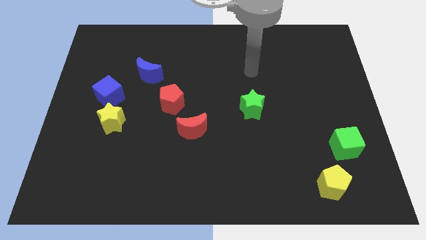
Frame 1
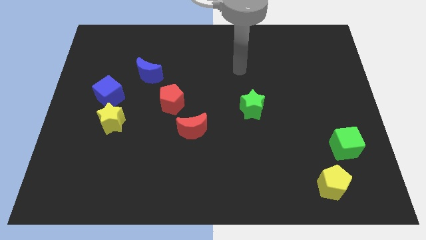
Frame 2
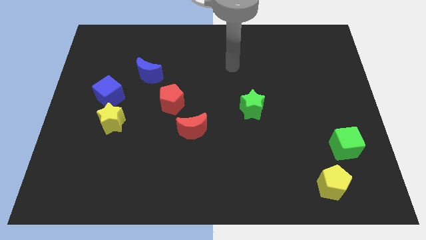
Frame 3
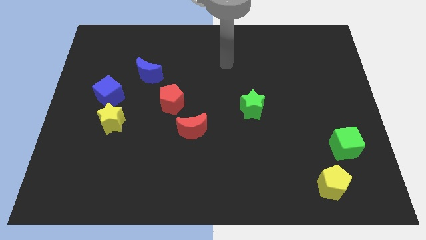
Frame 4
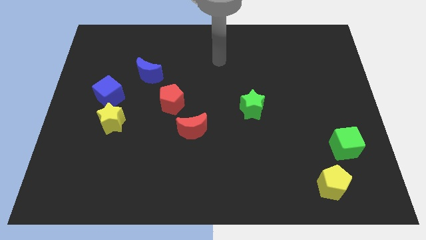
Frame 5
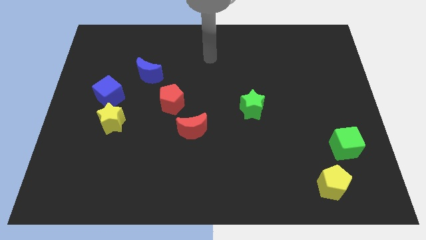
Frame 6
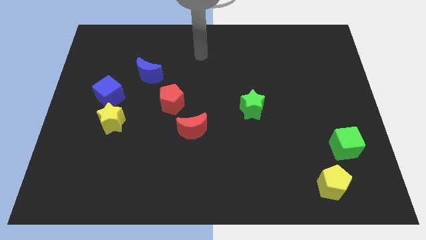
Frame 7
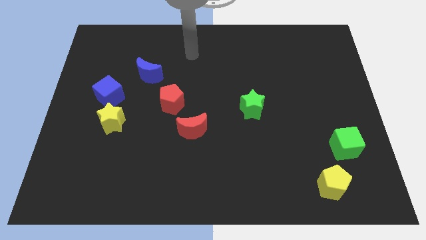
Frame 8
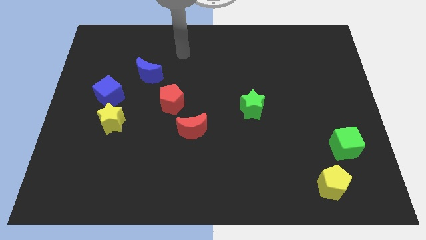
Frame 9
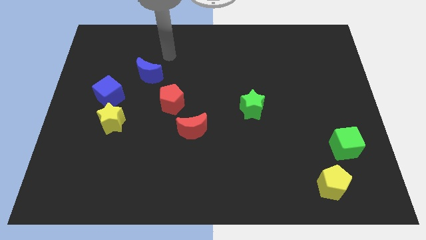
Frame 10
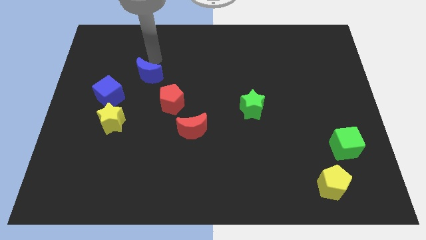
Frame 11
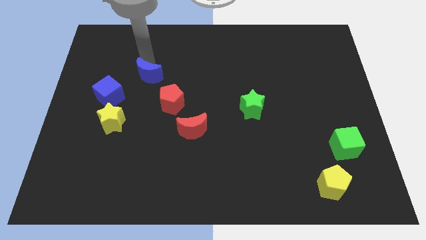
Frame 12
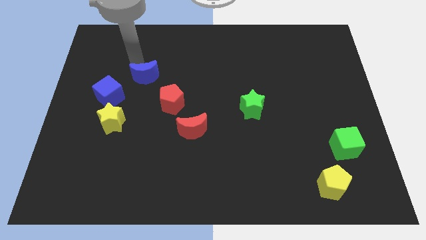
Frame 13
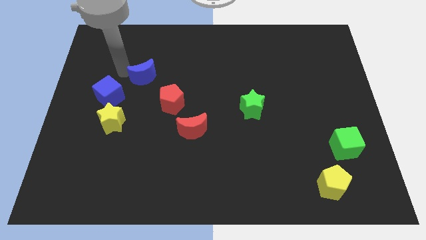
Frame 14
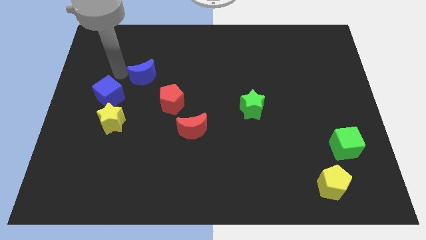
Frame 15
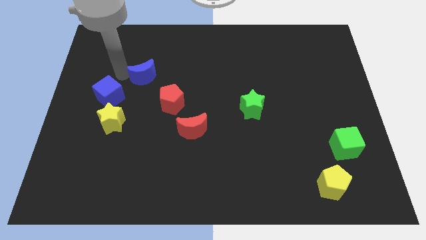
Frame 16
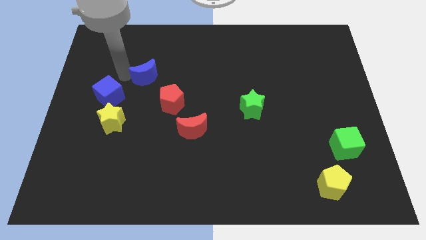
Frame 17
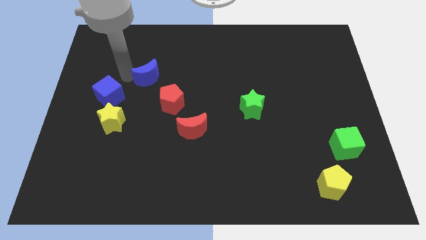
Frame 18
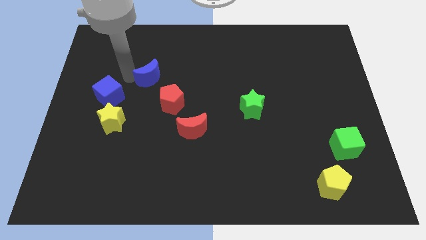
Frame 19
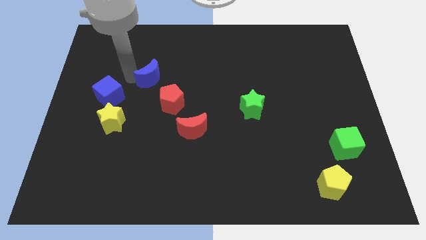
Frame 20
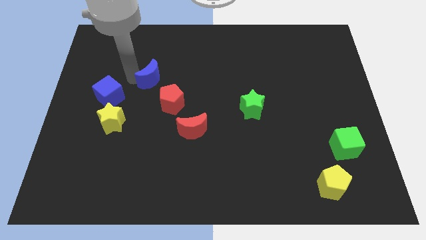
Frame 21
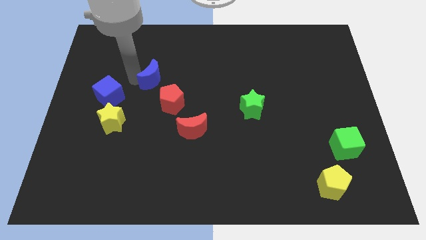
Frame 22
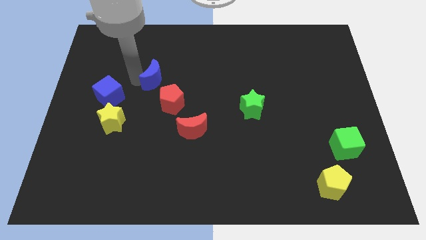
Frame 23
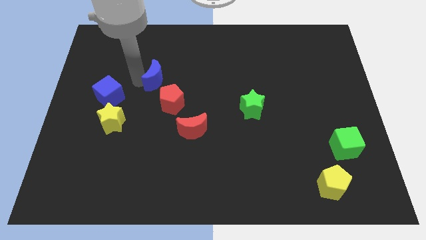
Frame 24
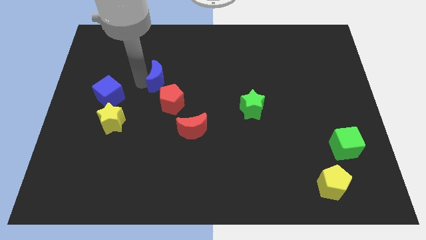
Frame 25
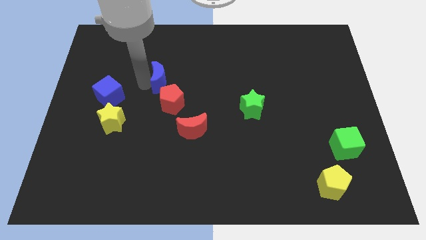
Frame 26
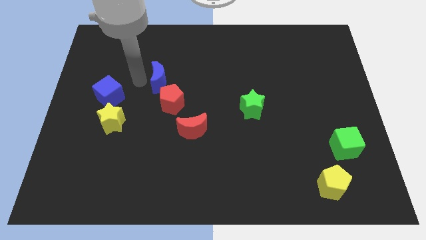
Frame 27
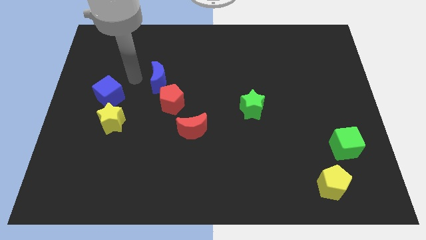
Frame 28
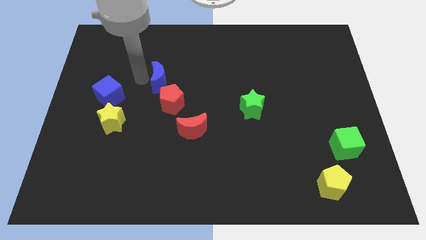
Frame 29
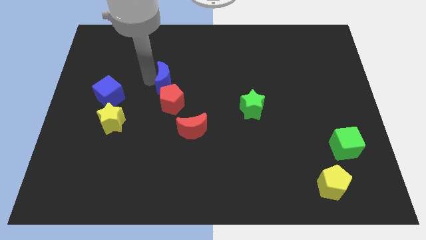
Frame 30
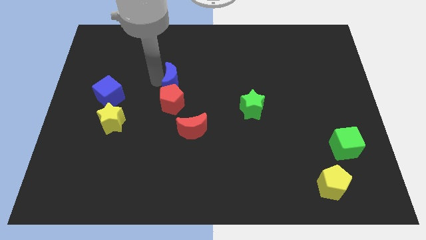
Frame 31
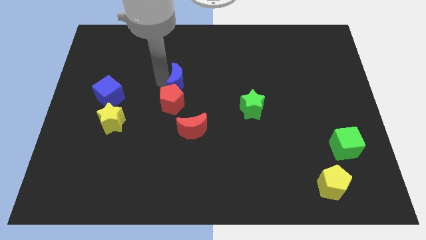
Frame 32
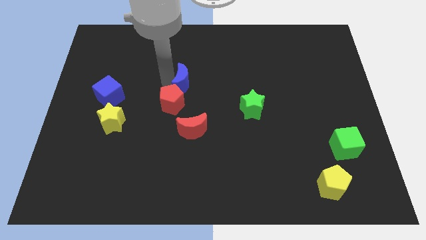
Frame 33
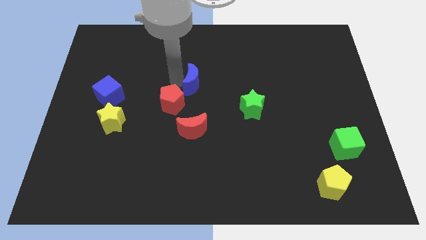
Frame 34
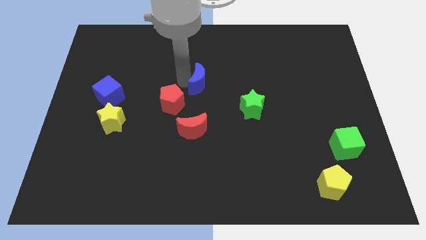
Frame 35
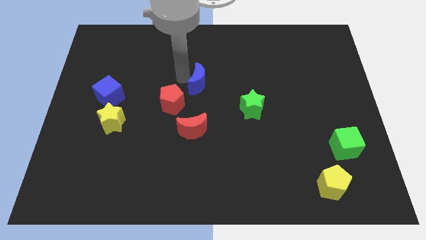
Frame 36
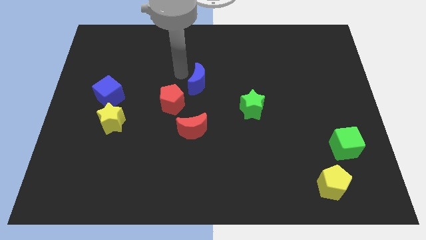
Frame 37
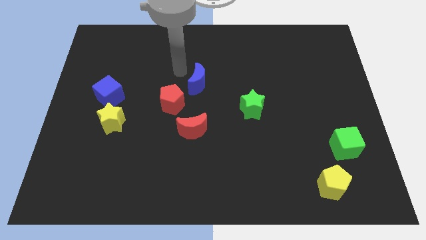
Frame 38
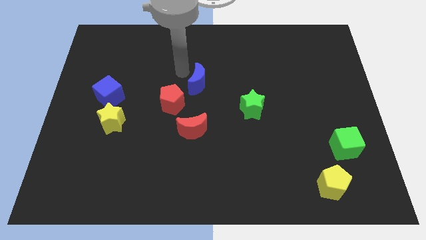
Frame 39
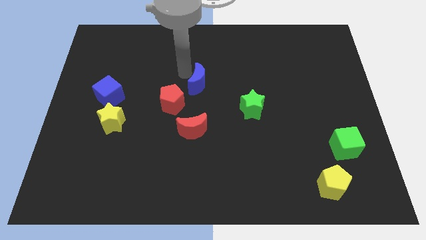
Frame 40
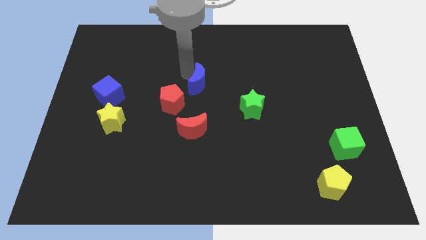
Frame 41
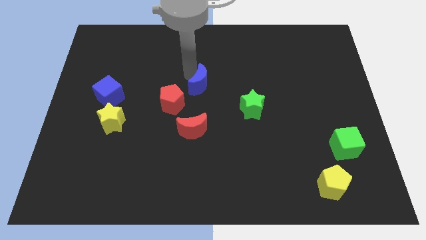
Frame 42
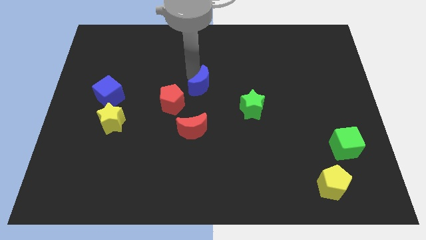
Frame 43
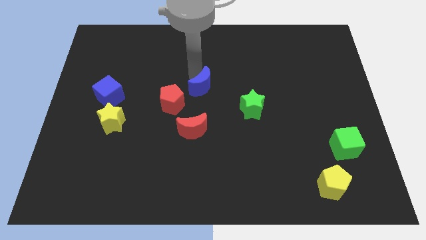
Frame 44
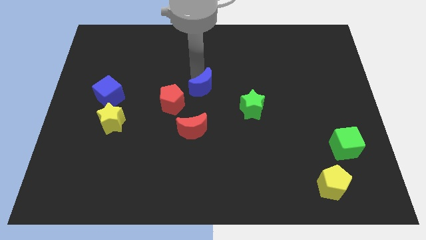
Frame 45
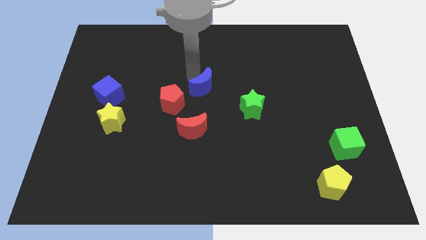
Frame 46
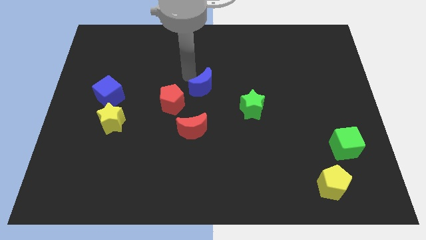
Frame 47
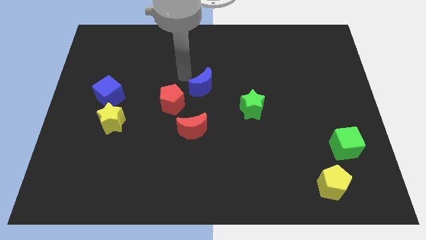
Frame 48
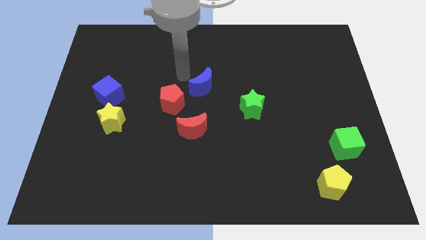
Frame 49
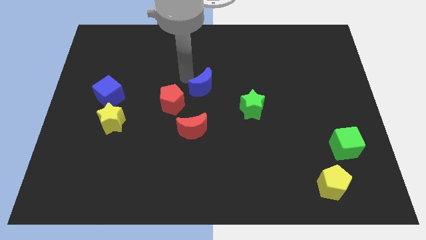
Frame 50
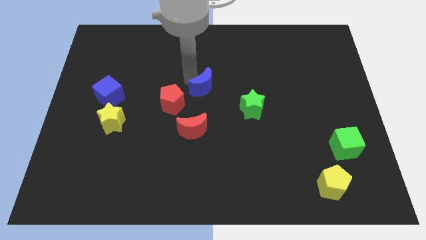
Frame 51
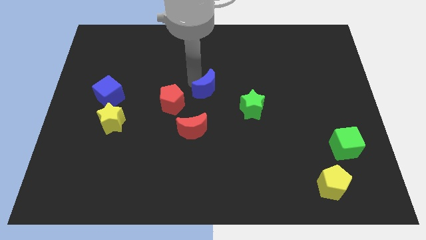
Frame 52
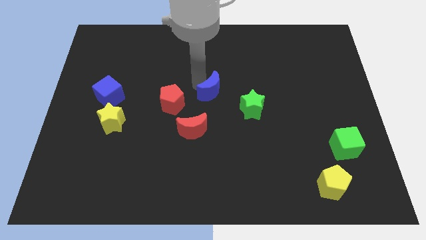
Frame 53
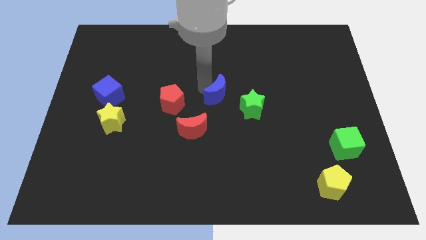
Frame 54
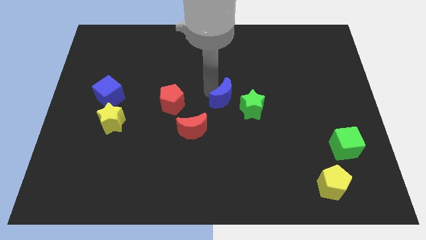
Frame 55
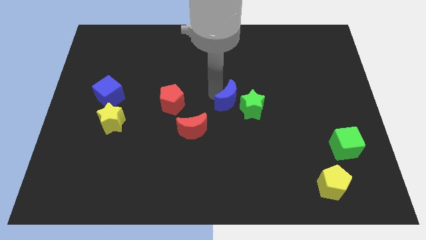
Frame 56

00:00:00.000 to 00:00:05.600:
slide the blue moon close to the green star

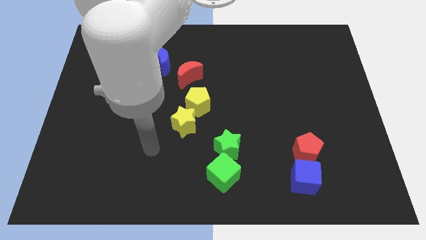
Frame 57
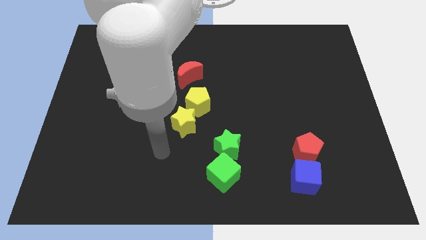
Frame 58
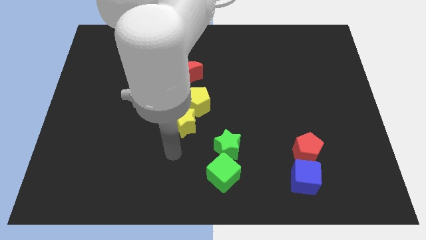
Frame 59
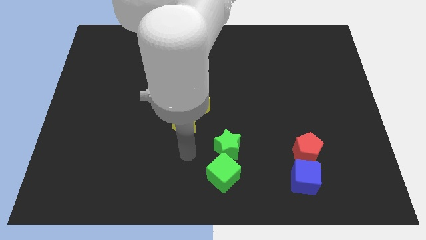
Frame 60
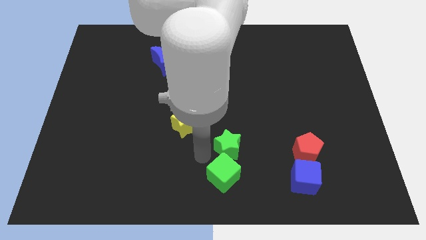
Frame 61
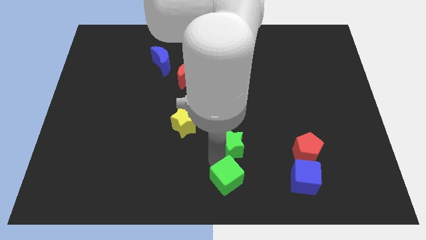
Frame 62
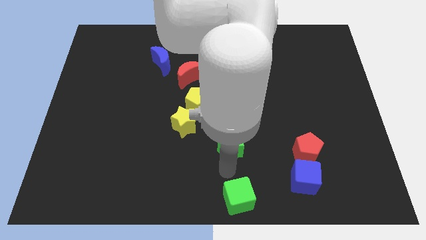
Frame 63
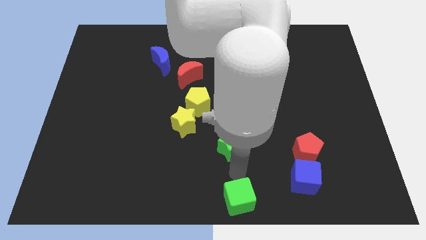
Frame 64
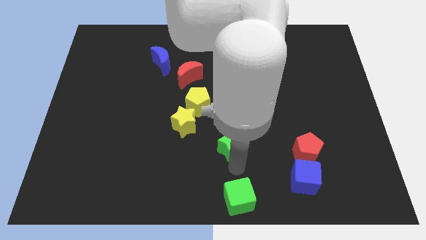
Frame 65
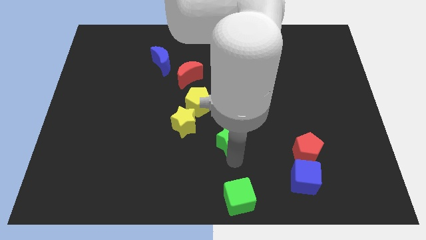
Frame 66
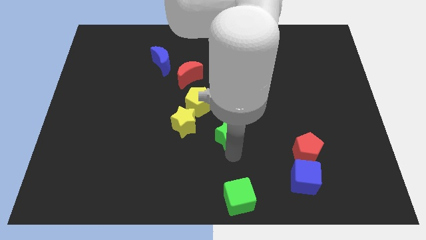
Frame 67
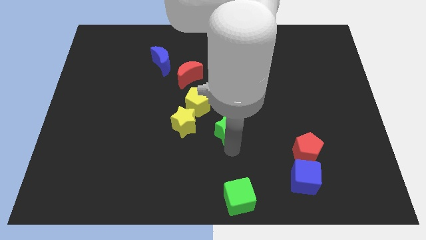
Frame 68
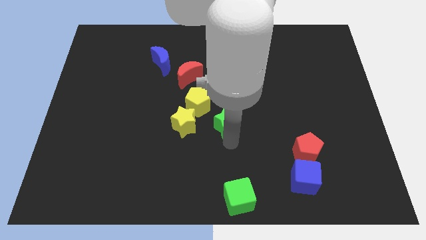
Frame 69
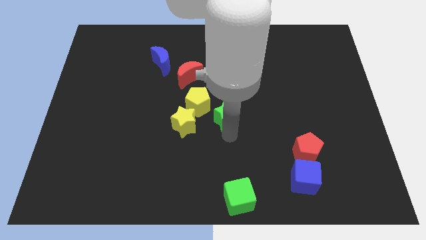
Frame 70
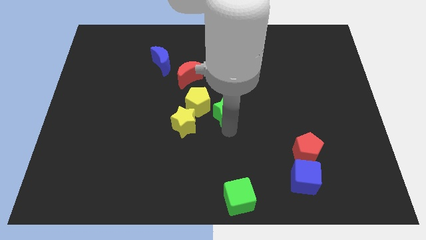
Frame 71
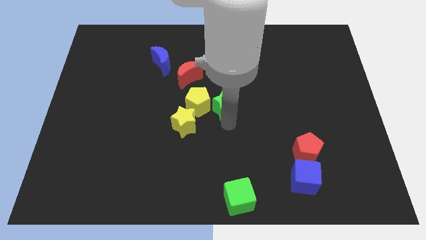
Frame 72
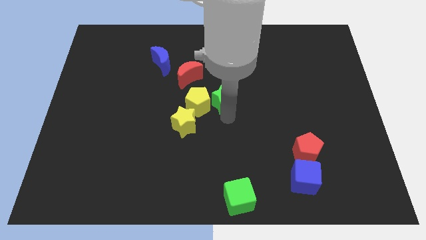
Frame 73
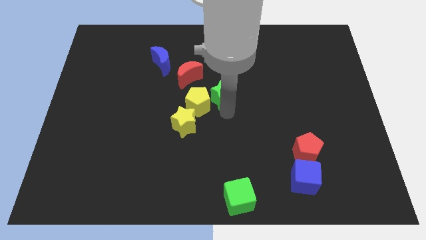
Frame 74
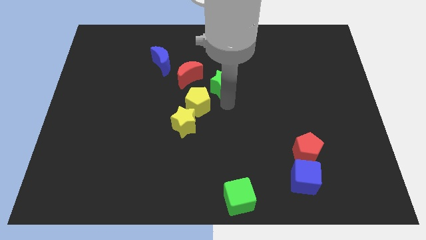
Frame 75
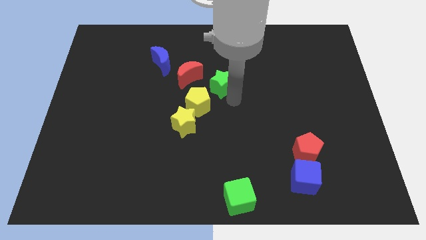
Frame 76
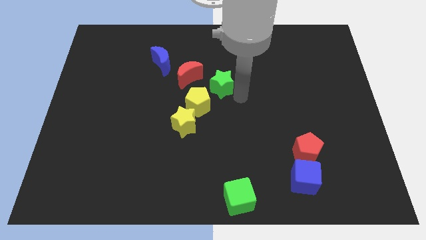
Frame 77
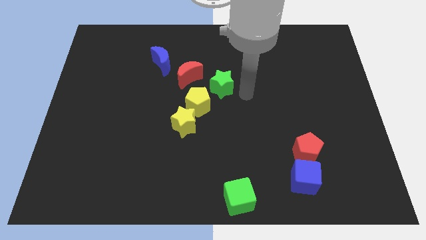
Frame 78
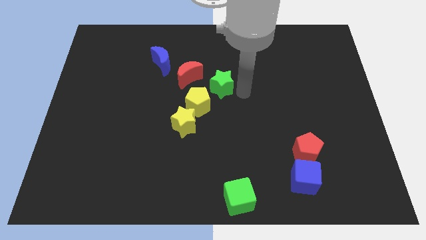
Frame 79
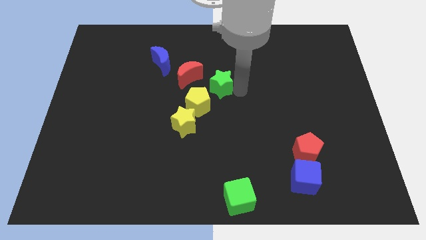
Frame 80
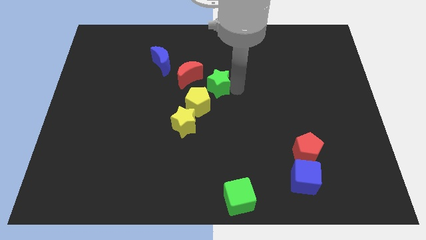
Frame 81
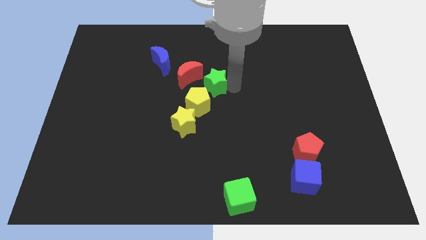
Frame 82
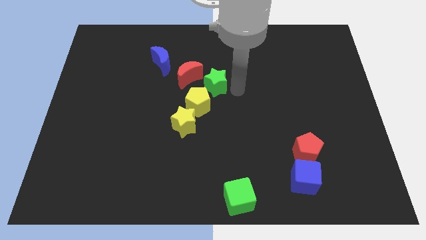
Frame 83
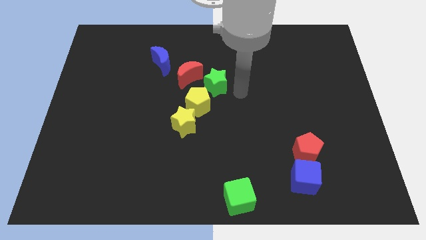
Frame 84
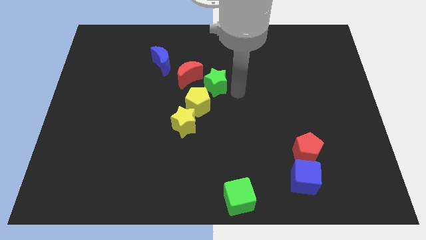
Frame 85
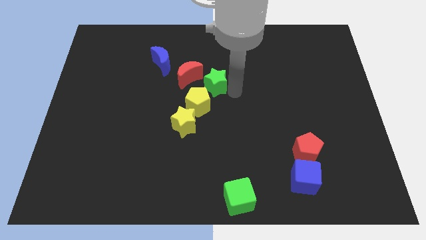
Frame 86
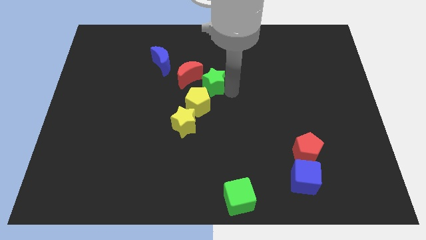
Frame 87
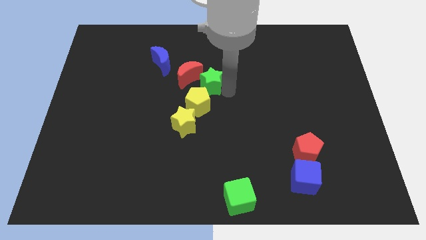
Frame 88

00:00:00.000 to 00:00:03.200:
slide the green star towards the red moon
